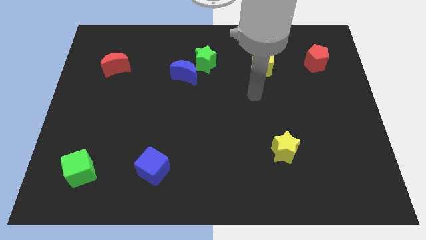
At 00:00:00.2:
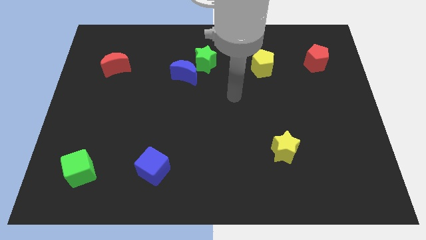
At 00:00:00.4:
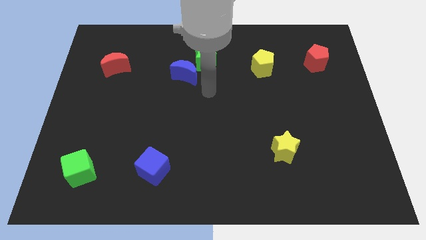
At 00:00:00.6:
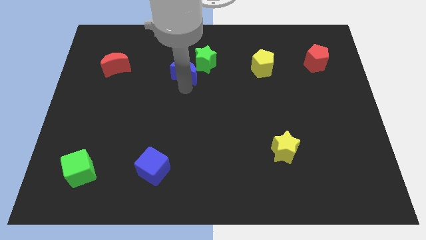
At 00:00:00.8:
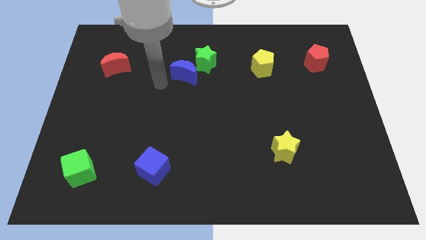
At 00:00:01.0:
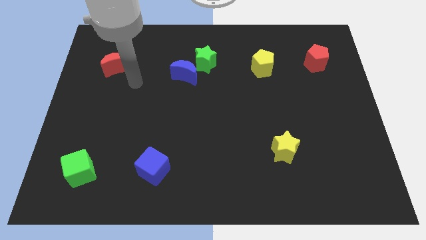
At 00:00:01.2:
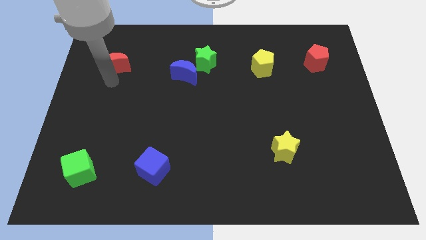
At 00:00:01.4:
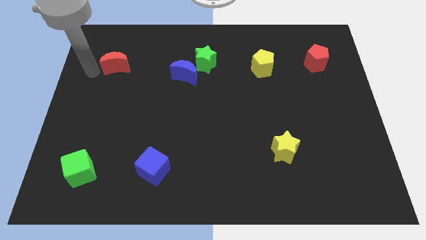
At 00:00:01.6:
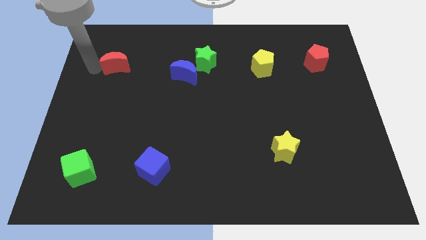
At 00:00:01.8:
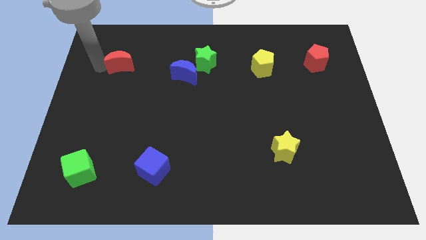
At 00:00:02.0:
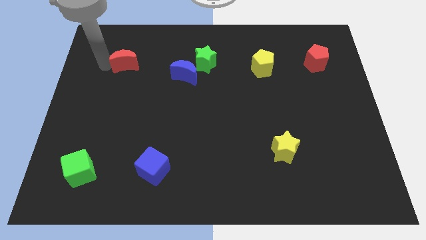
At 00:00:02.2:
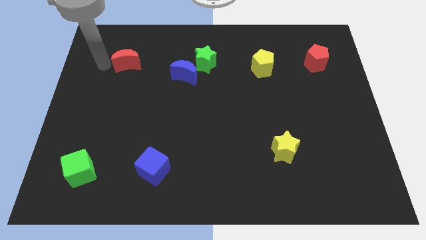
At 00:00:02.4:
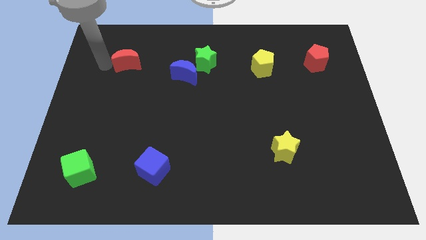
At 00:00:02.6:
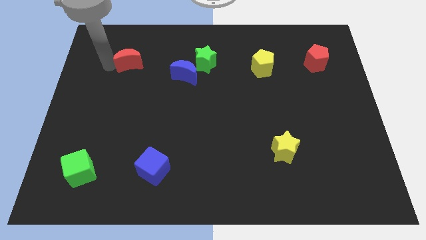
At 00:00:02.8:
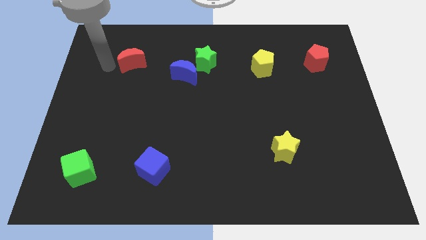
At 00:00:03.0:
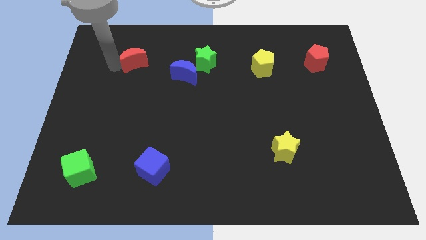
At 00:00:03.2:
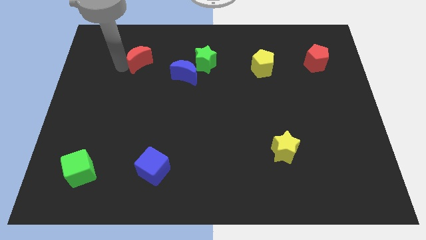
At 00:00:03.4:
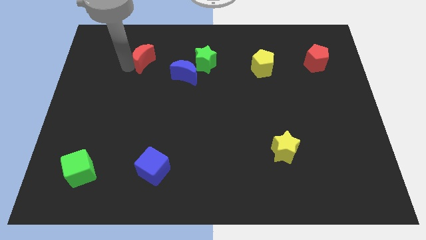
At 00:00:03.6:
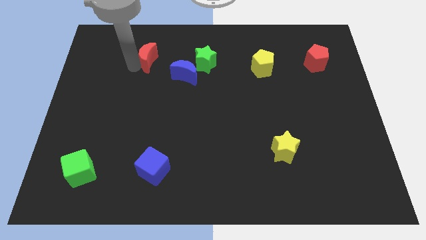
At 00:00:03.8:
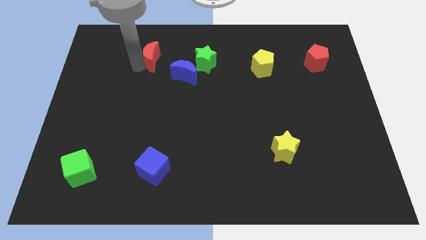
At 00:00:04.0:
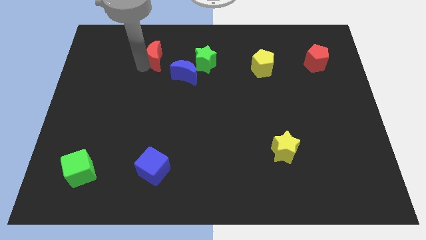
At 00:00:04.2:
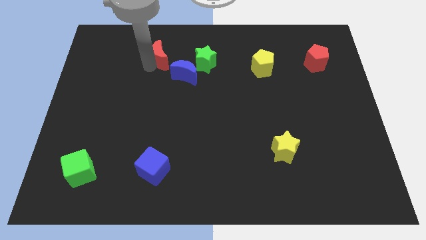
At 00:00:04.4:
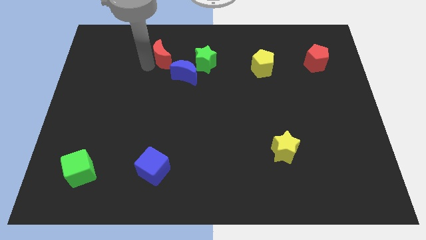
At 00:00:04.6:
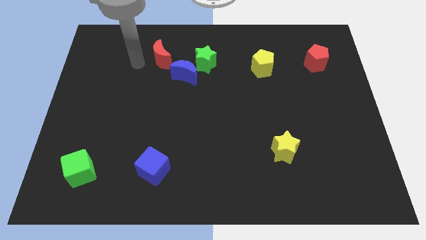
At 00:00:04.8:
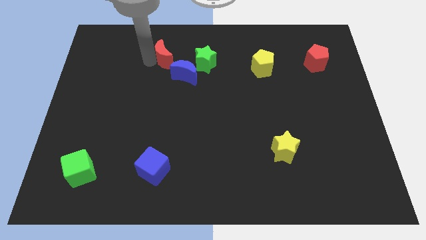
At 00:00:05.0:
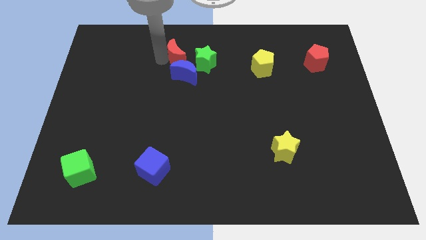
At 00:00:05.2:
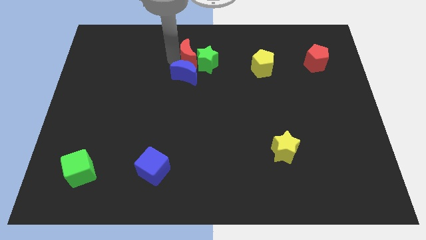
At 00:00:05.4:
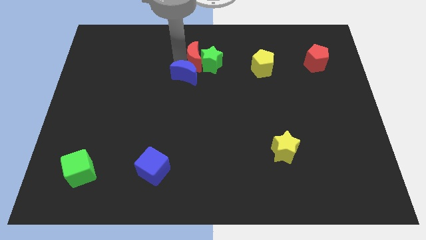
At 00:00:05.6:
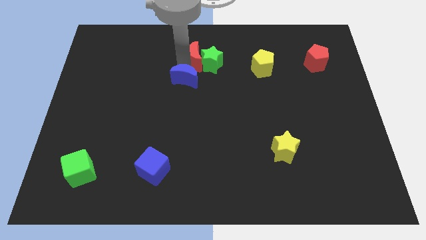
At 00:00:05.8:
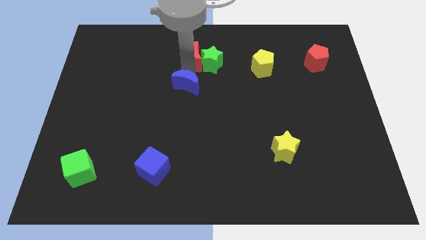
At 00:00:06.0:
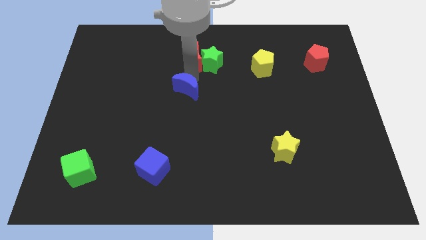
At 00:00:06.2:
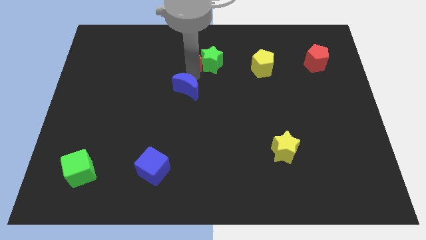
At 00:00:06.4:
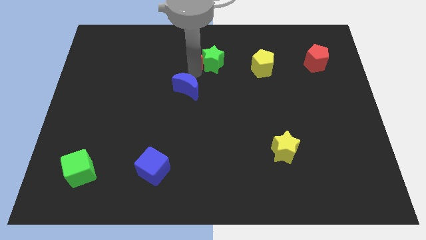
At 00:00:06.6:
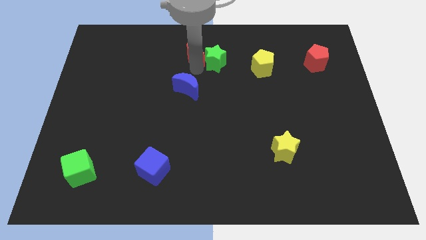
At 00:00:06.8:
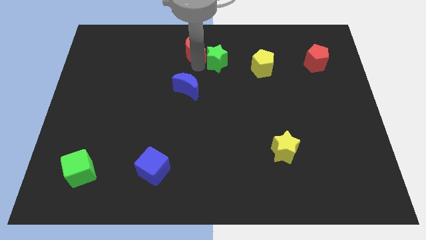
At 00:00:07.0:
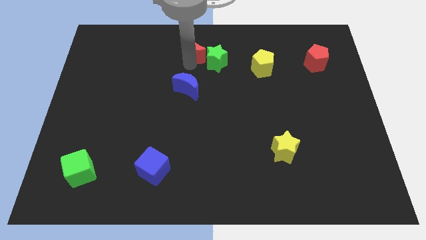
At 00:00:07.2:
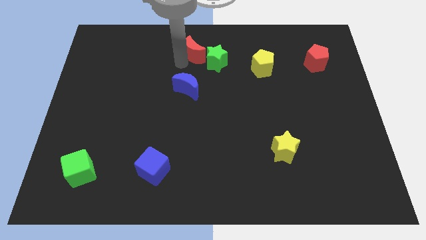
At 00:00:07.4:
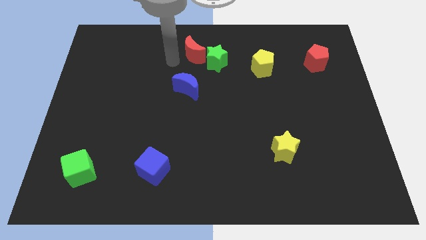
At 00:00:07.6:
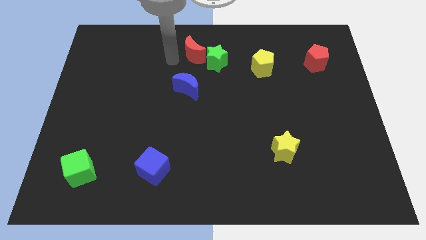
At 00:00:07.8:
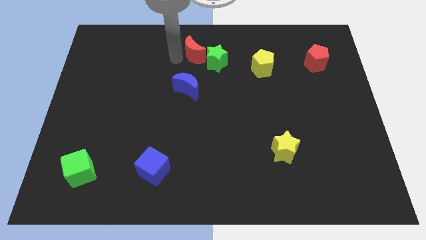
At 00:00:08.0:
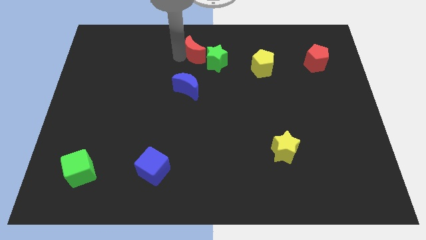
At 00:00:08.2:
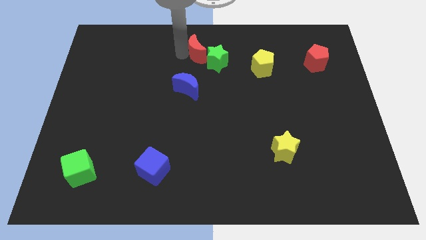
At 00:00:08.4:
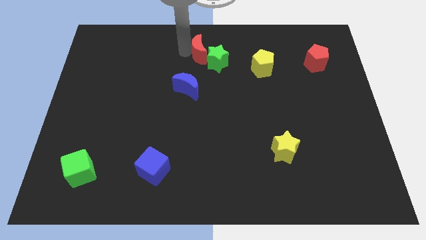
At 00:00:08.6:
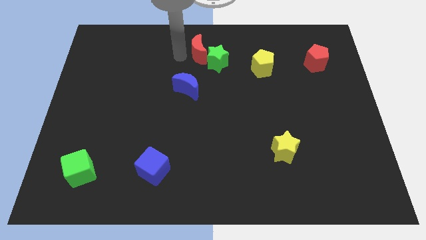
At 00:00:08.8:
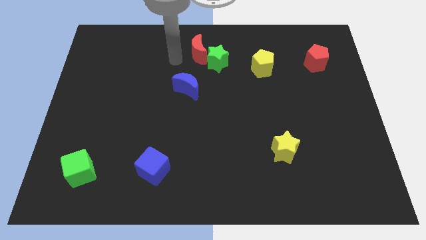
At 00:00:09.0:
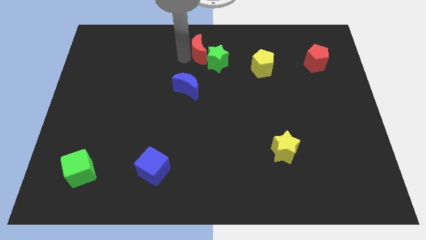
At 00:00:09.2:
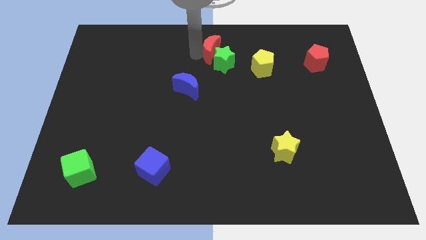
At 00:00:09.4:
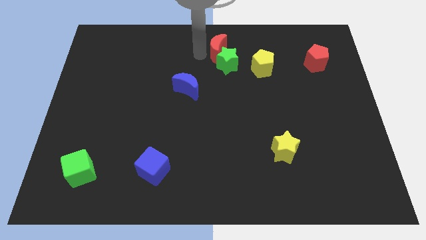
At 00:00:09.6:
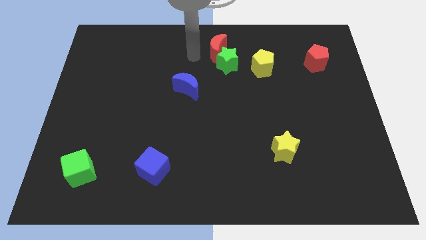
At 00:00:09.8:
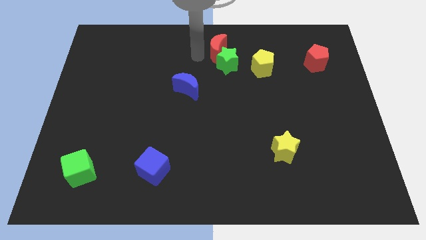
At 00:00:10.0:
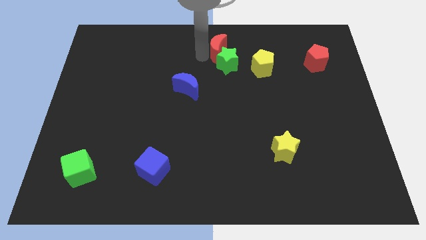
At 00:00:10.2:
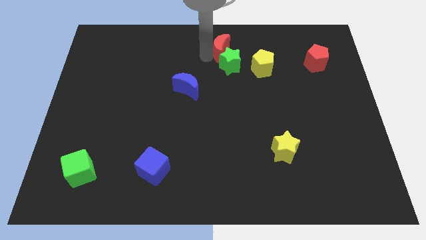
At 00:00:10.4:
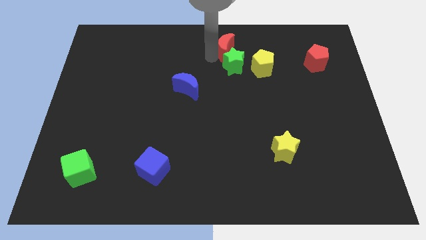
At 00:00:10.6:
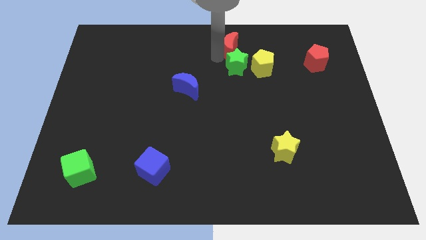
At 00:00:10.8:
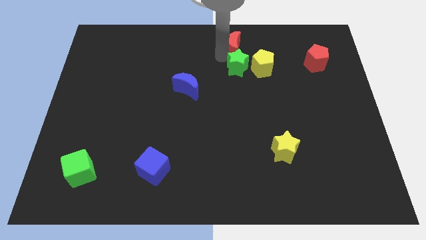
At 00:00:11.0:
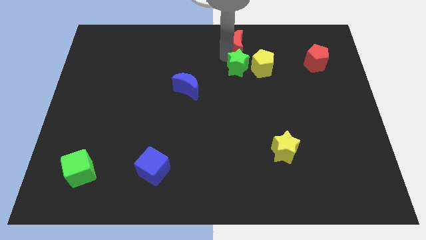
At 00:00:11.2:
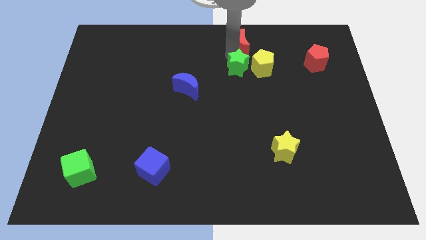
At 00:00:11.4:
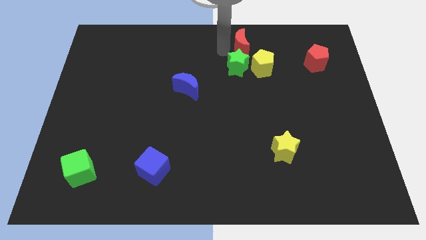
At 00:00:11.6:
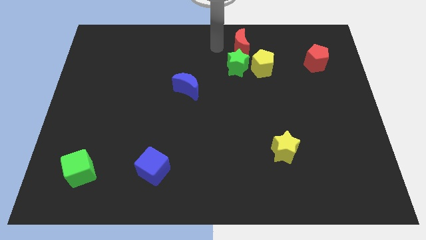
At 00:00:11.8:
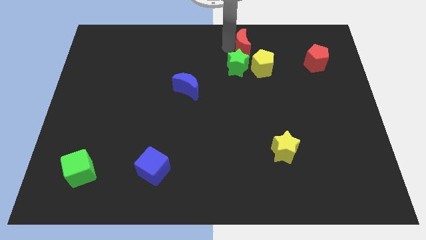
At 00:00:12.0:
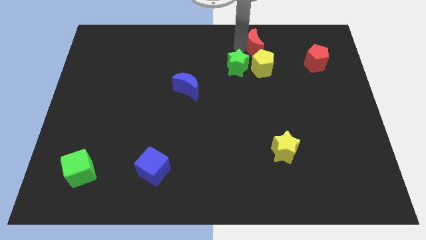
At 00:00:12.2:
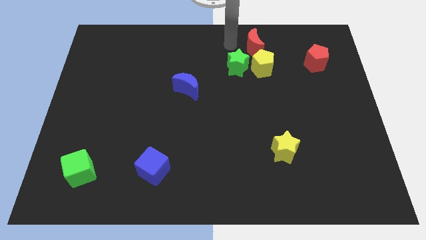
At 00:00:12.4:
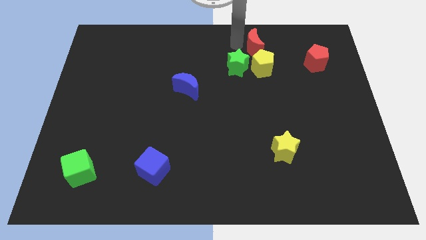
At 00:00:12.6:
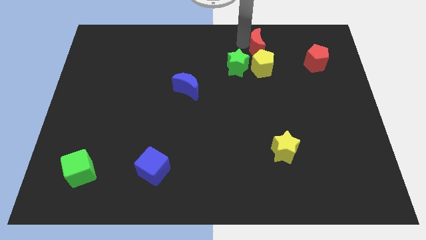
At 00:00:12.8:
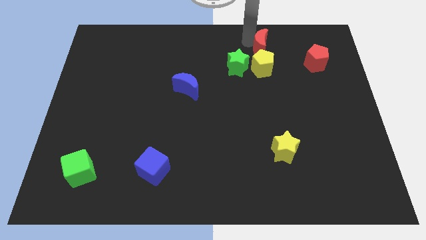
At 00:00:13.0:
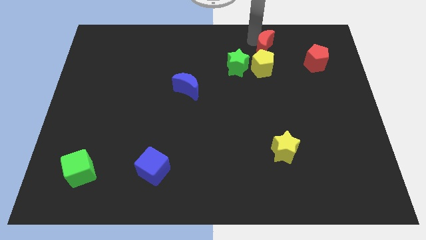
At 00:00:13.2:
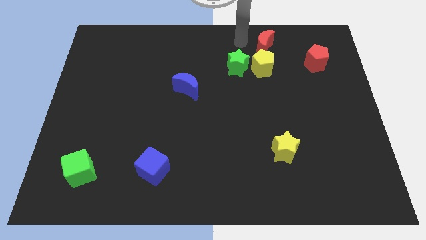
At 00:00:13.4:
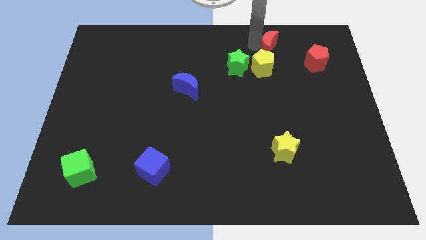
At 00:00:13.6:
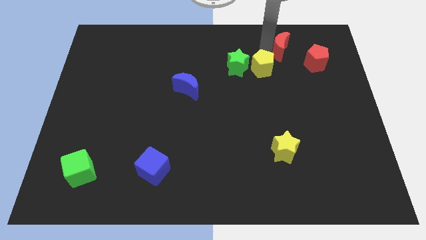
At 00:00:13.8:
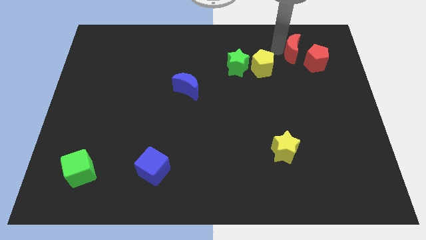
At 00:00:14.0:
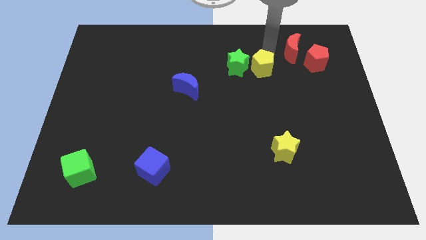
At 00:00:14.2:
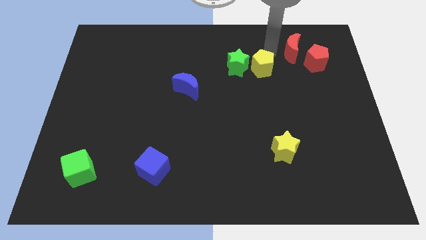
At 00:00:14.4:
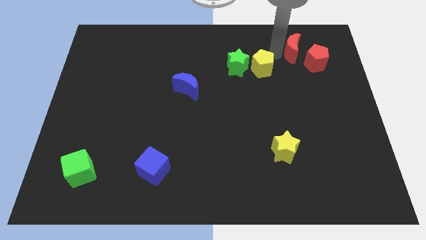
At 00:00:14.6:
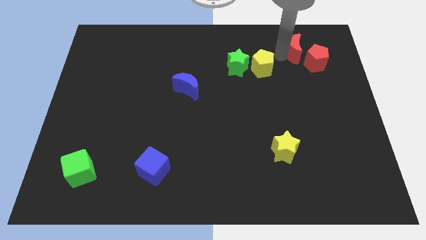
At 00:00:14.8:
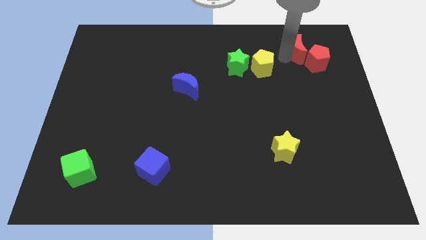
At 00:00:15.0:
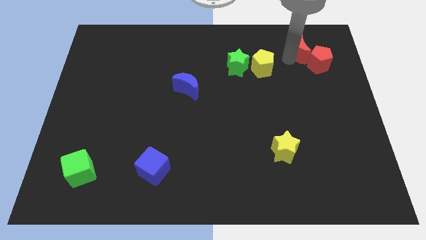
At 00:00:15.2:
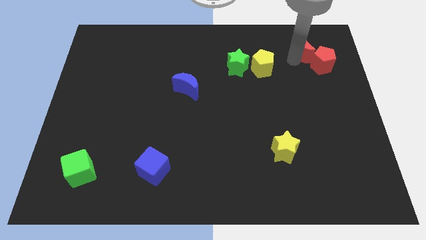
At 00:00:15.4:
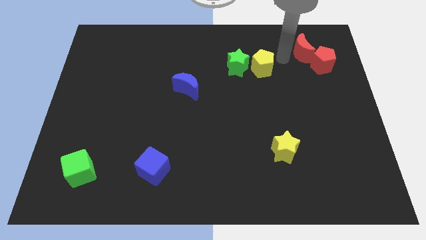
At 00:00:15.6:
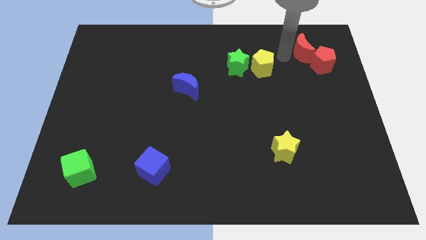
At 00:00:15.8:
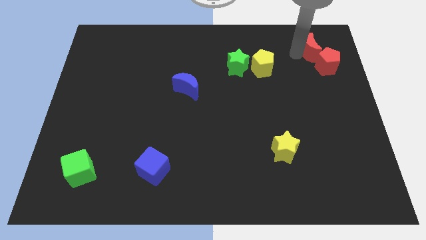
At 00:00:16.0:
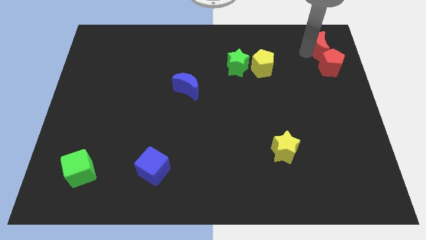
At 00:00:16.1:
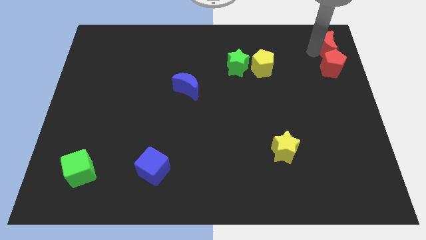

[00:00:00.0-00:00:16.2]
move the red moon to the top right
